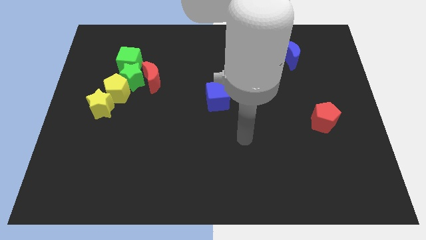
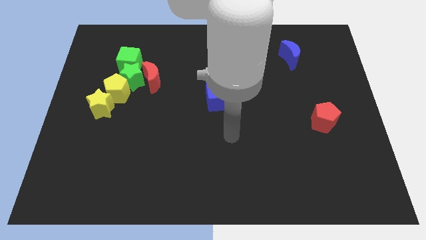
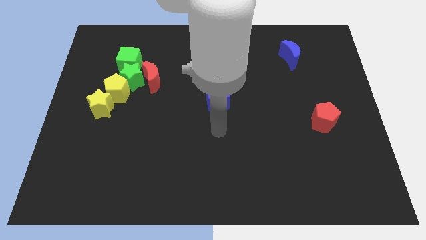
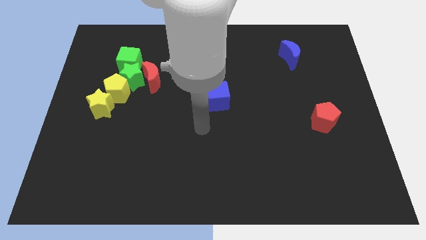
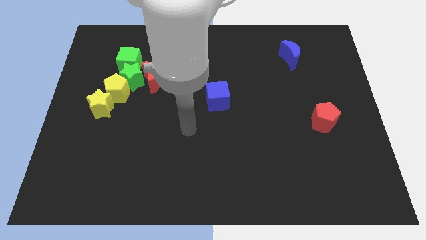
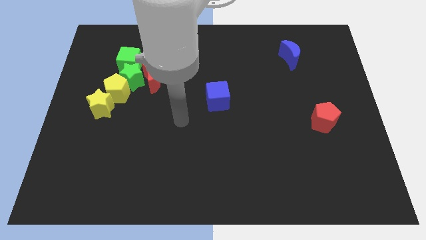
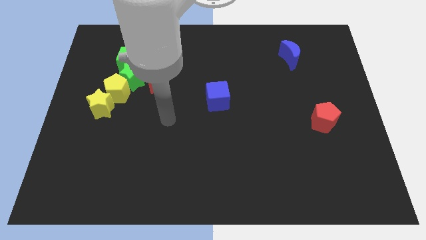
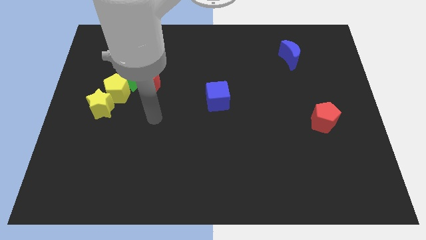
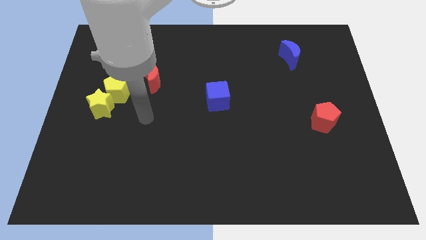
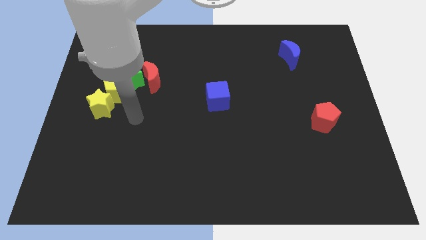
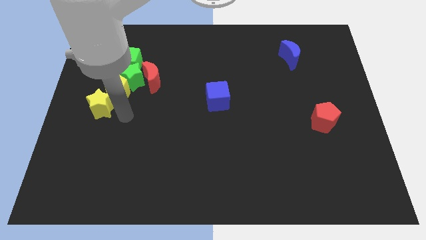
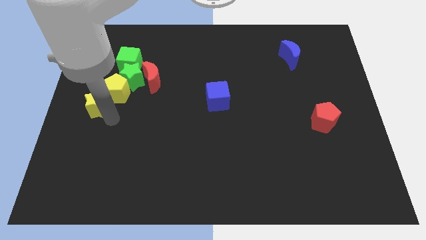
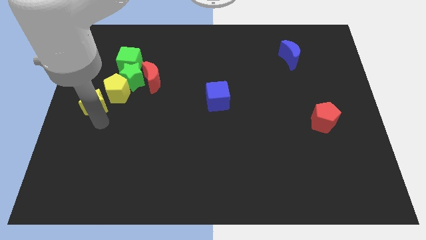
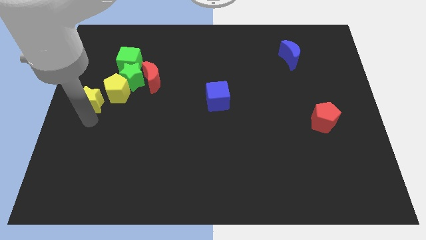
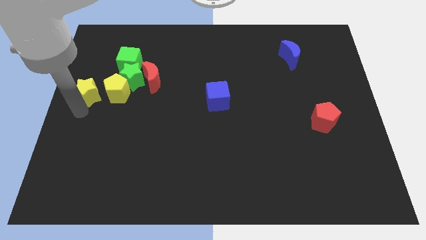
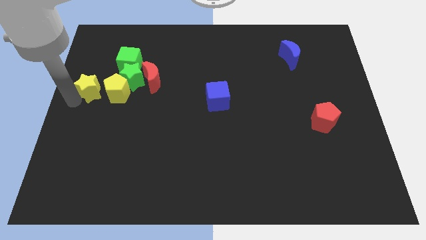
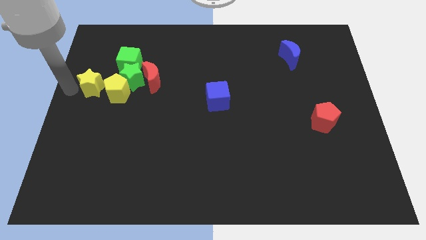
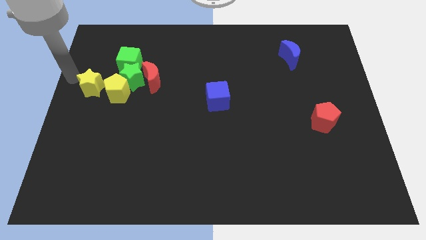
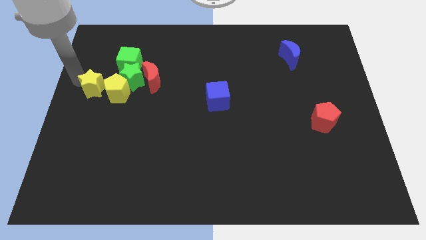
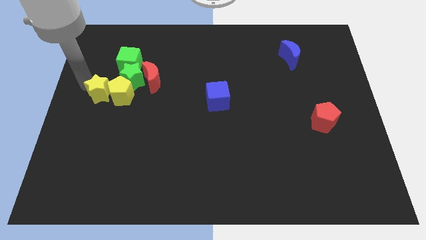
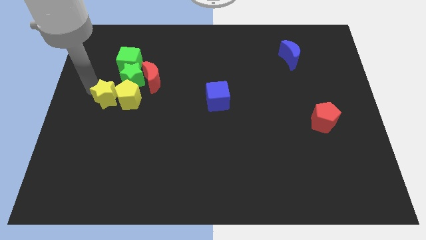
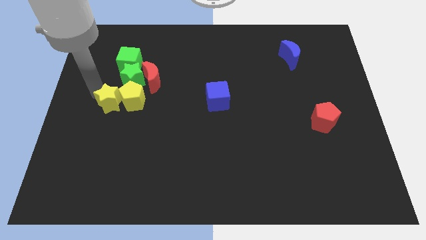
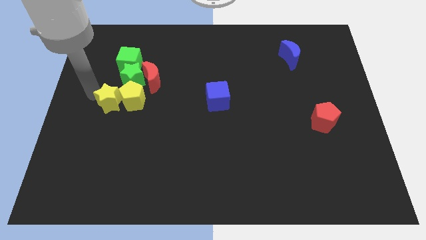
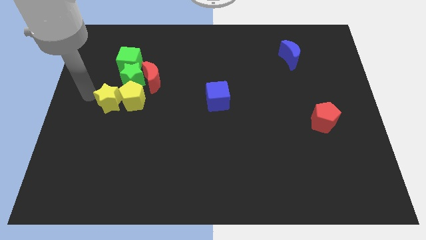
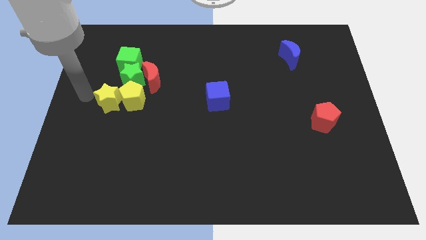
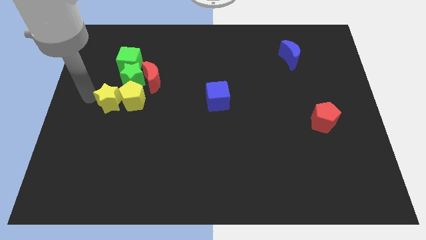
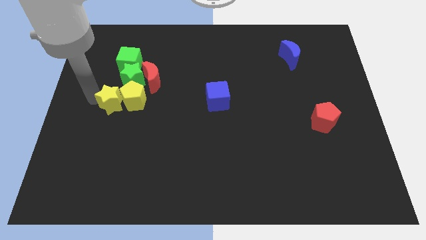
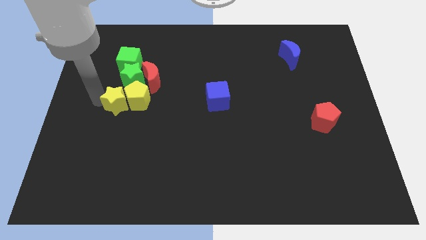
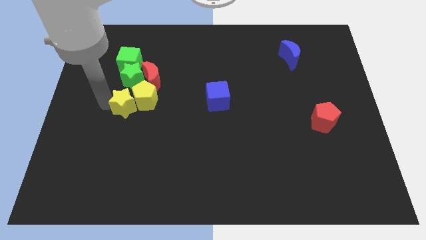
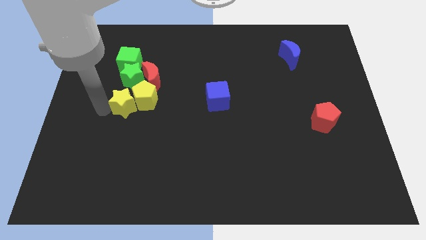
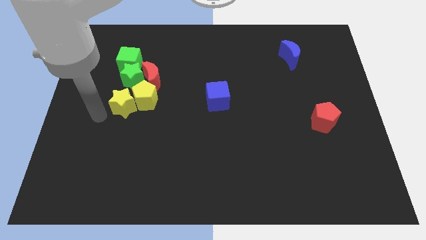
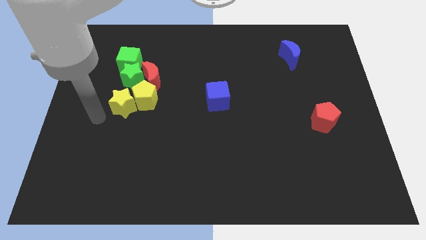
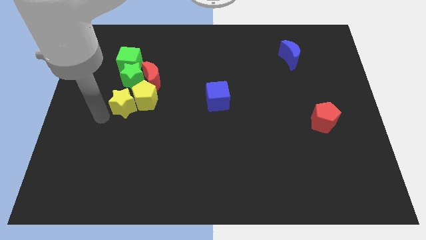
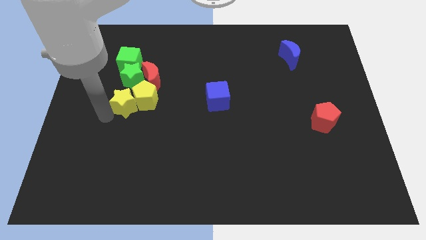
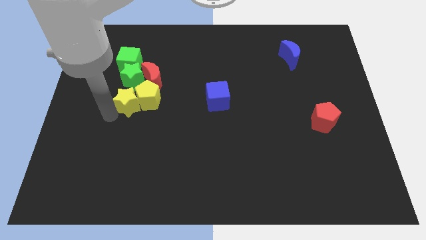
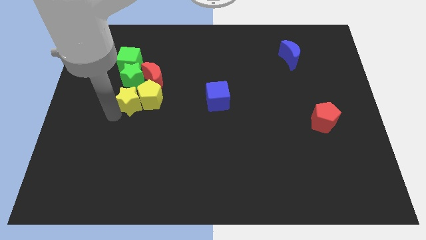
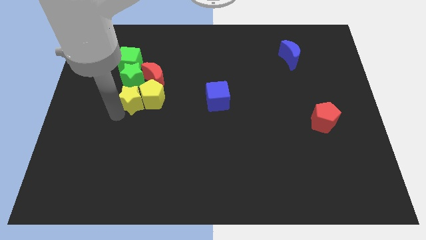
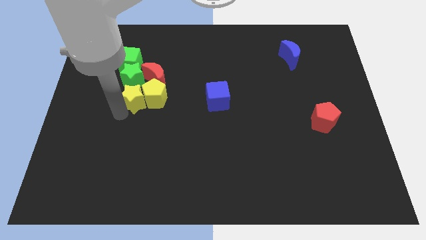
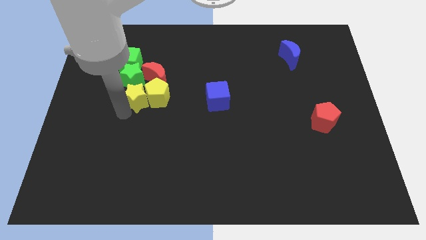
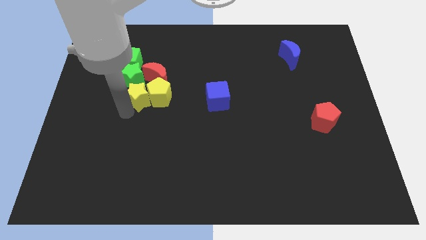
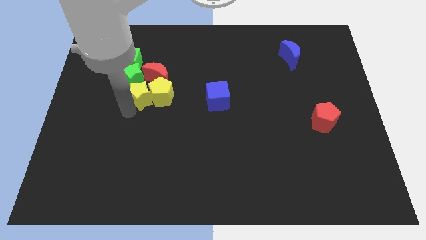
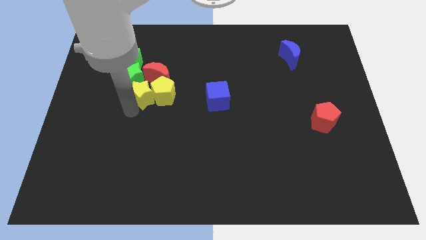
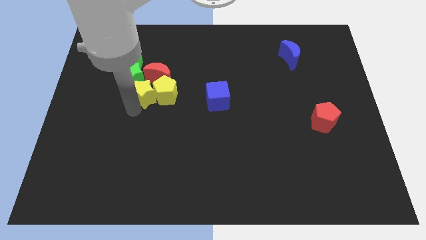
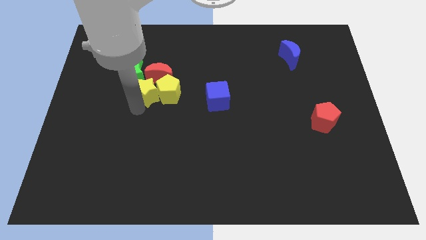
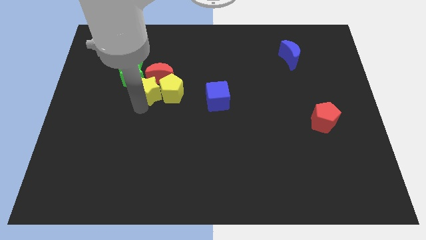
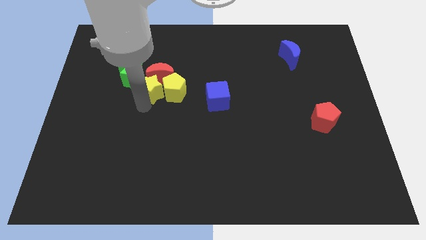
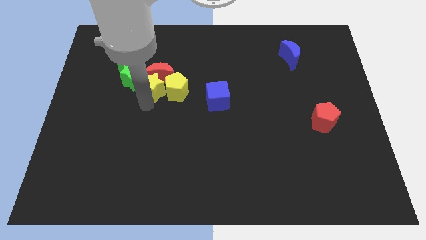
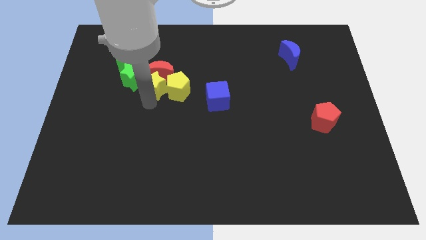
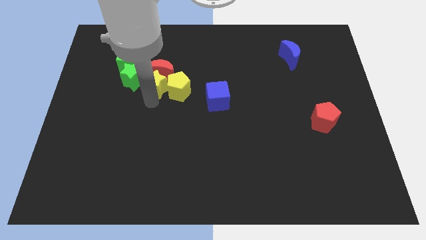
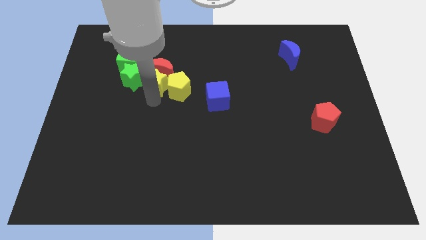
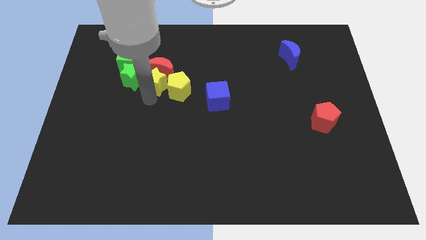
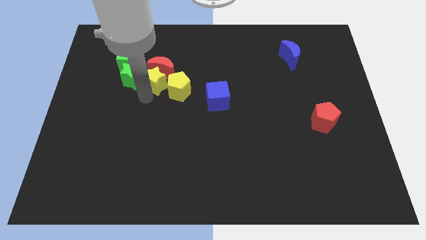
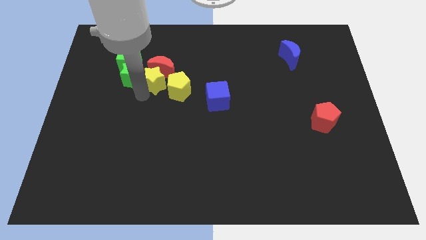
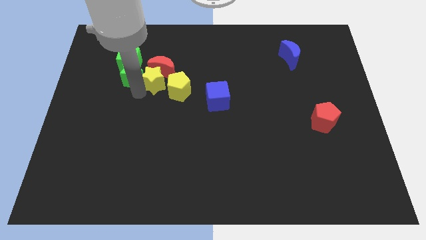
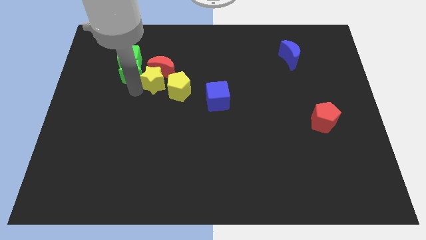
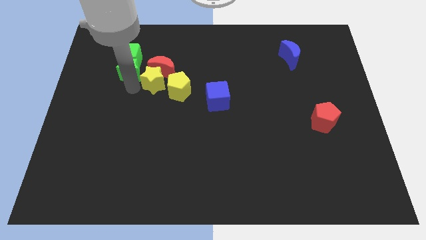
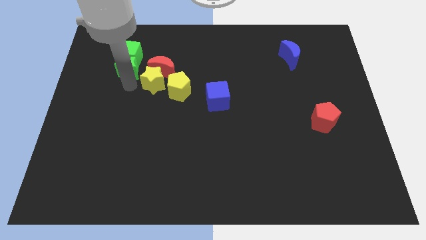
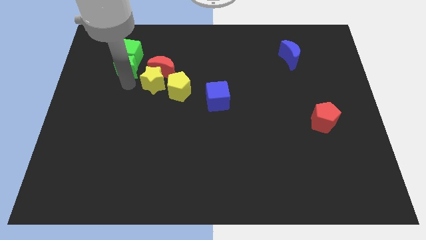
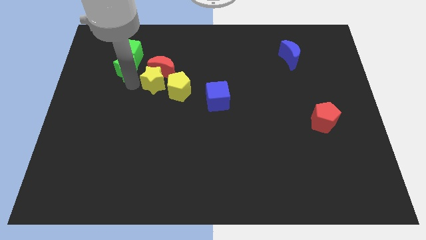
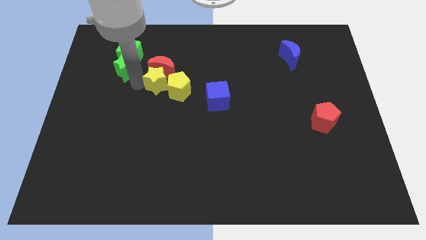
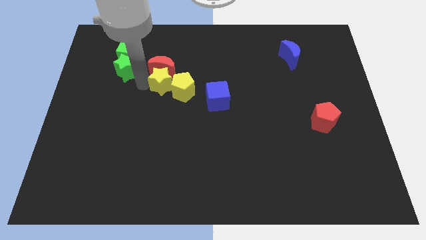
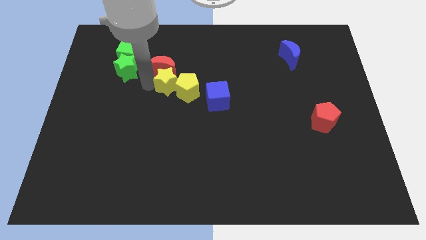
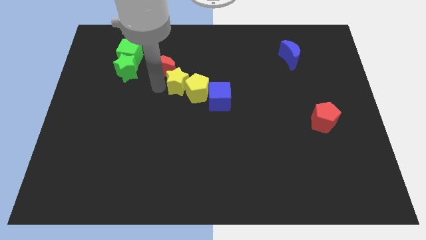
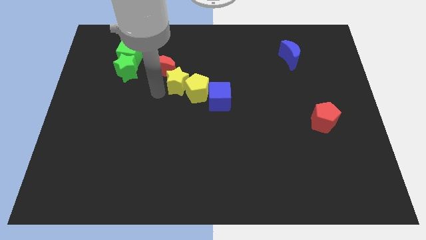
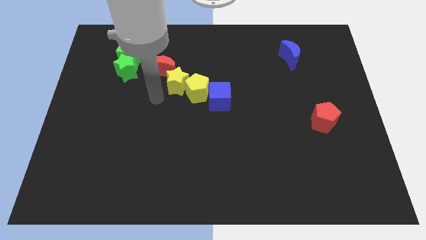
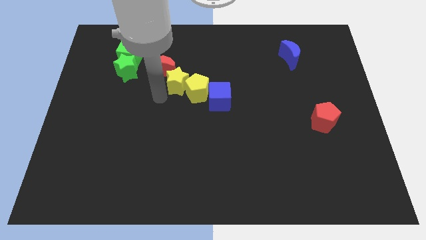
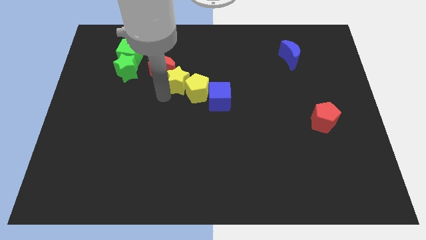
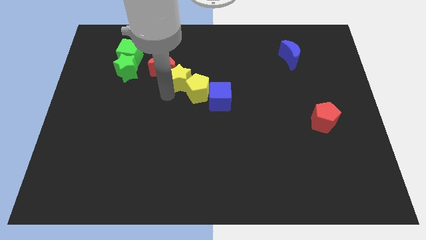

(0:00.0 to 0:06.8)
slide the yellow star just right of the red moon

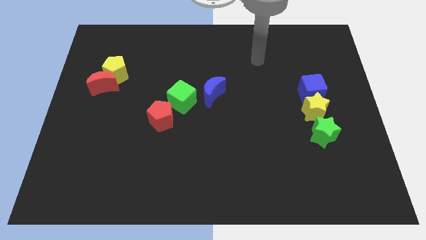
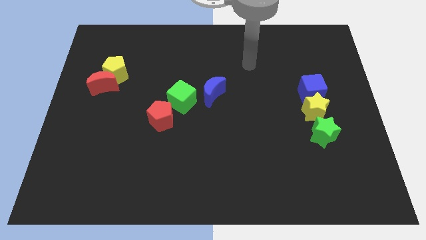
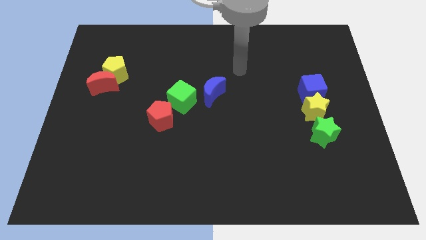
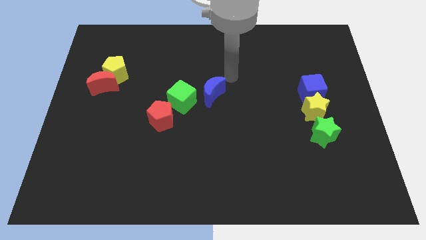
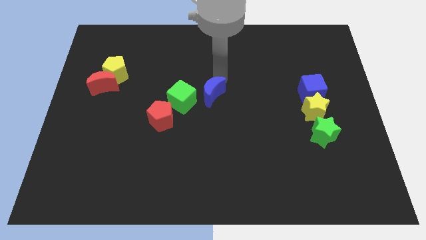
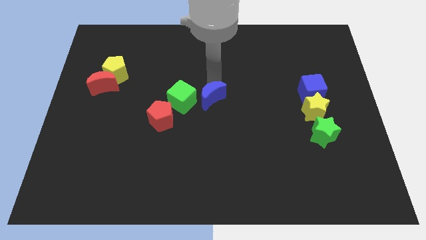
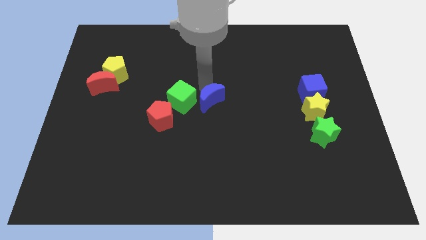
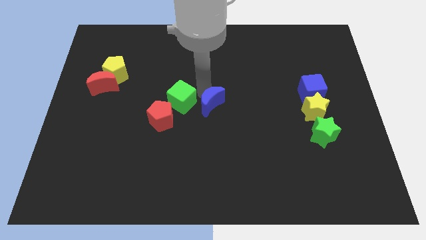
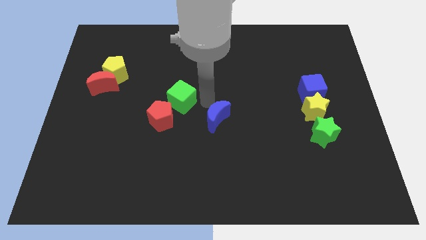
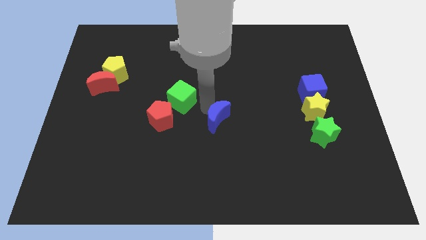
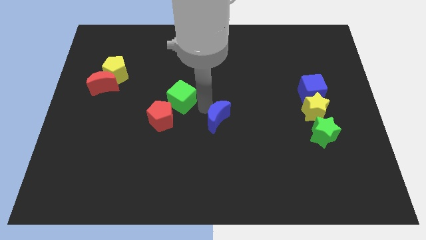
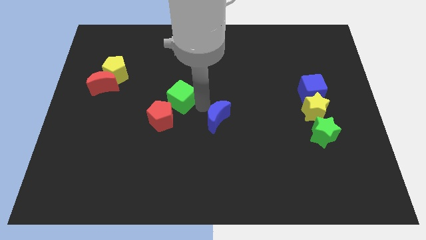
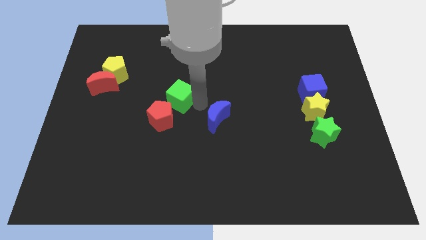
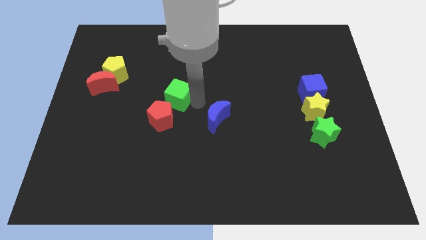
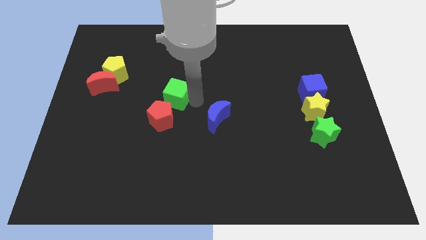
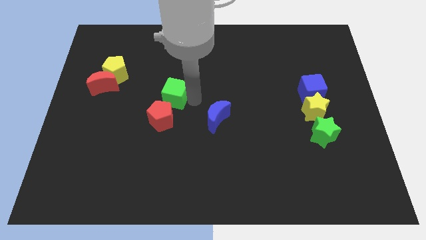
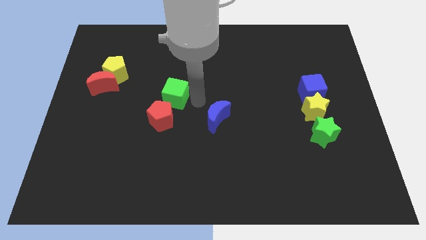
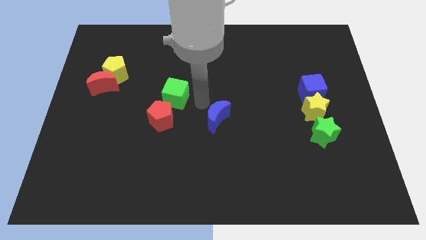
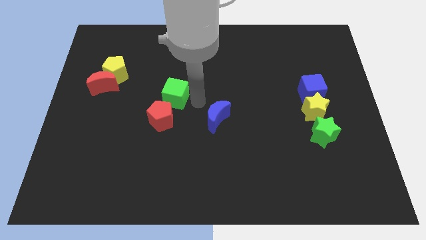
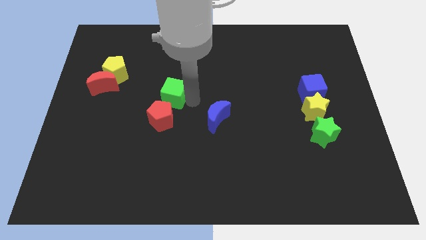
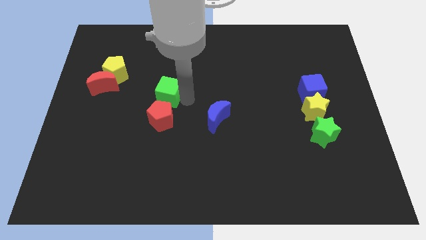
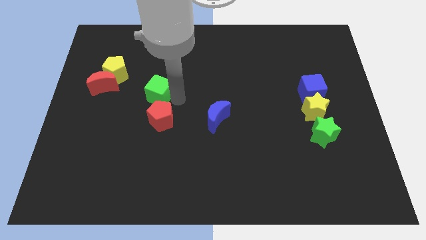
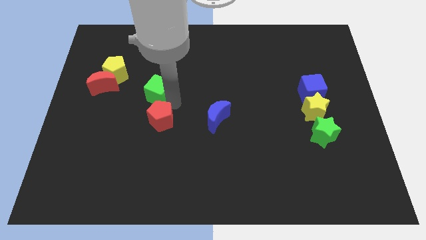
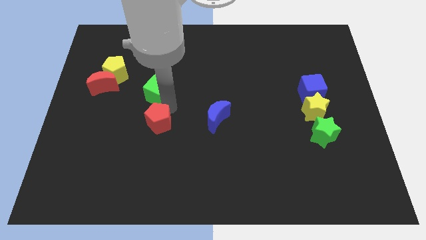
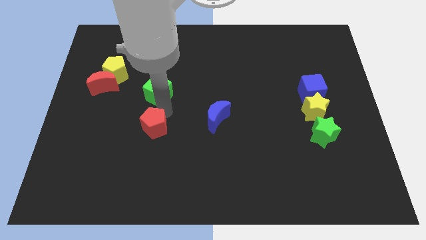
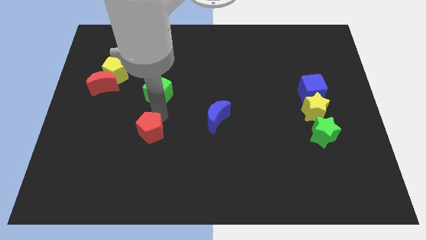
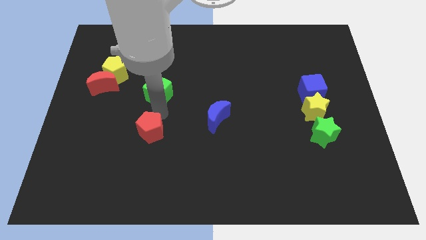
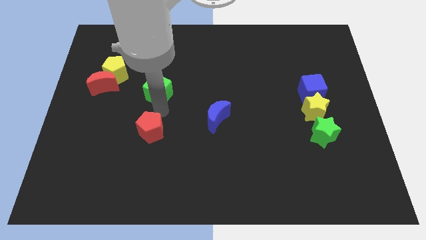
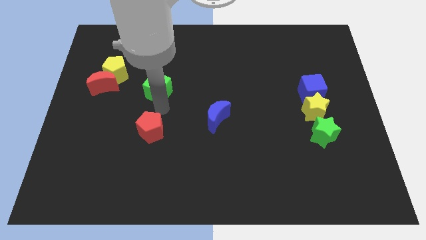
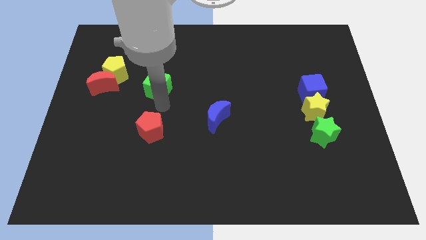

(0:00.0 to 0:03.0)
slide the green cube to the right of the yellow pentagon
